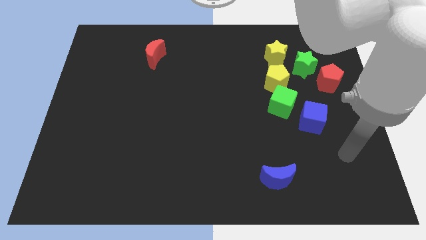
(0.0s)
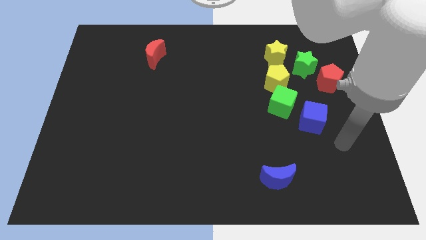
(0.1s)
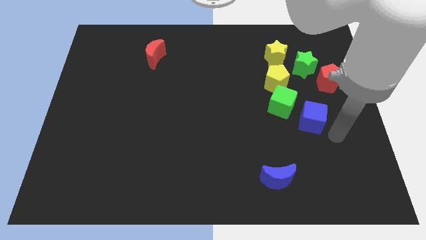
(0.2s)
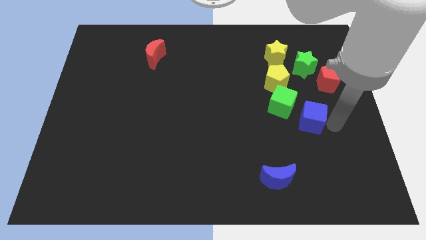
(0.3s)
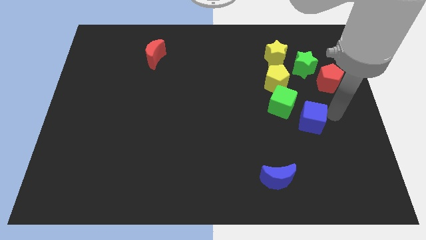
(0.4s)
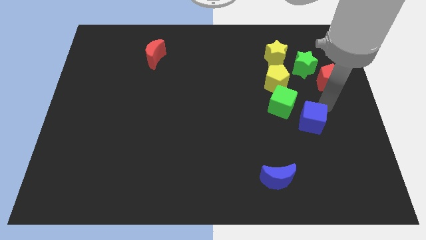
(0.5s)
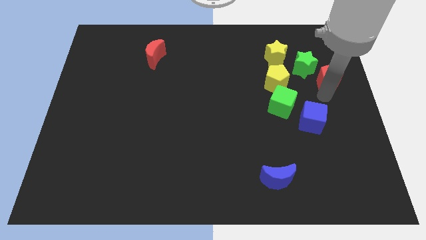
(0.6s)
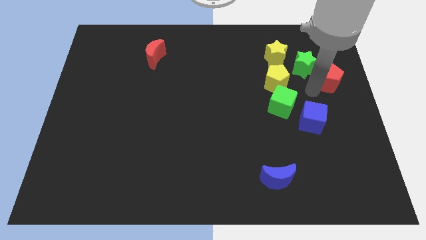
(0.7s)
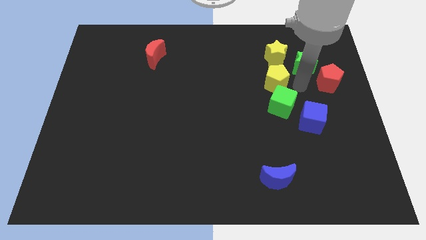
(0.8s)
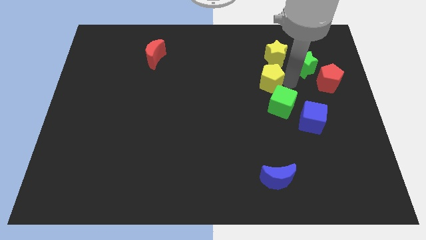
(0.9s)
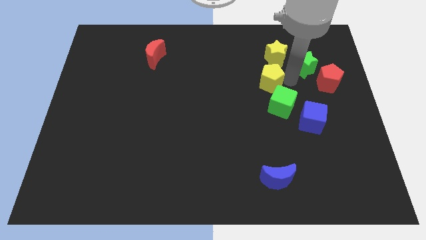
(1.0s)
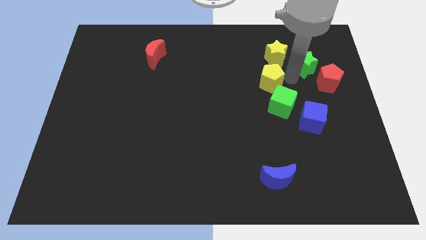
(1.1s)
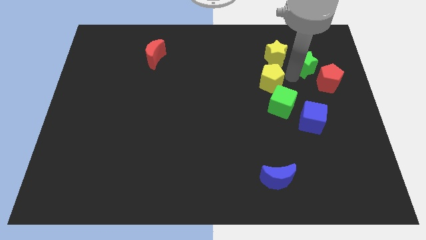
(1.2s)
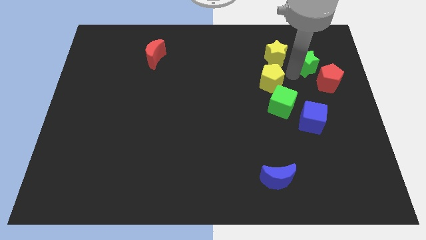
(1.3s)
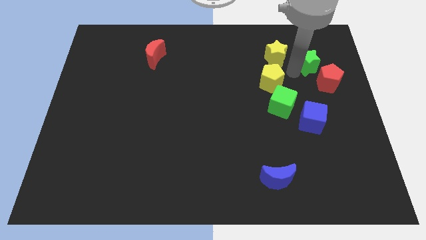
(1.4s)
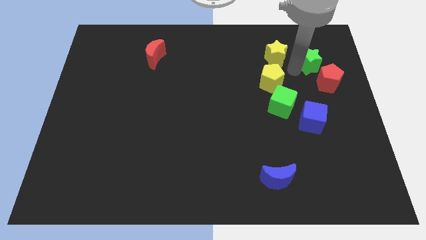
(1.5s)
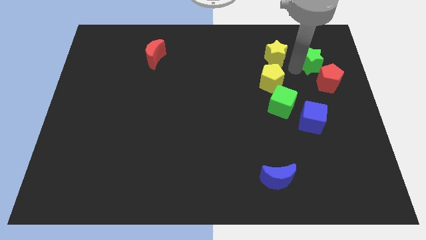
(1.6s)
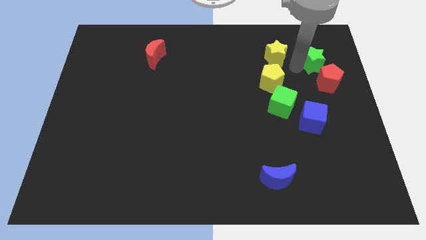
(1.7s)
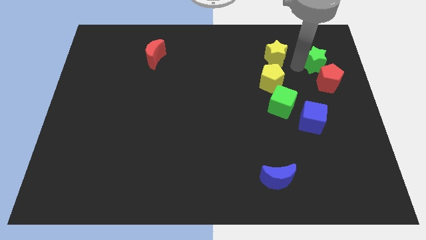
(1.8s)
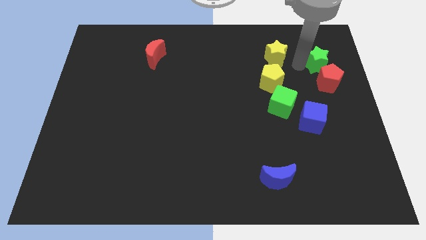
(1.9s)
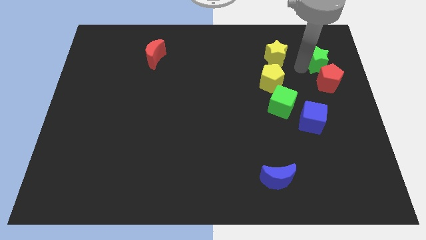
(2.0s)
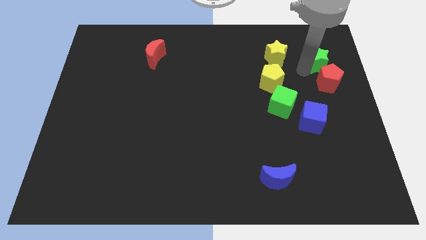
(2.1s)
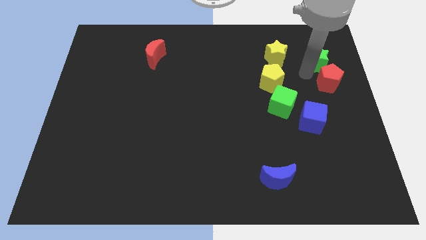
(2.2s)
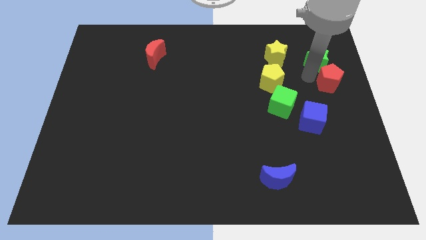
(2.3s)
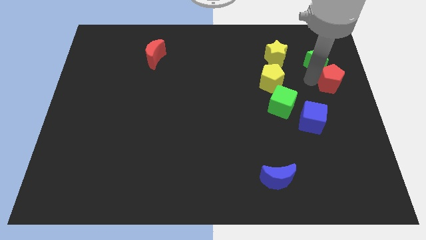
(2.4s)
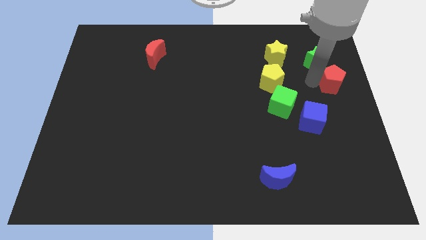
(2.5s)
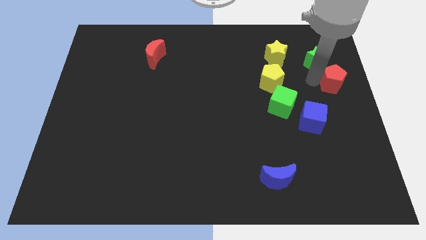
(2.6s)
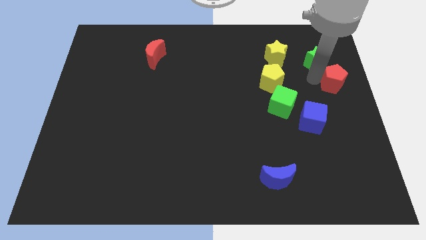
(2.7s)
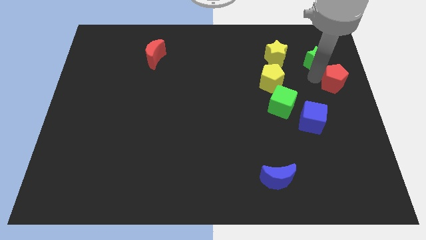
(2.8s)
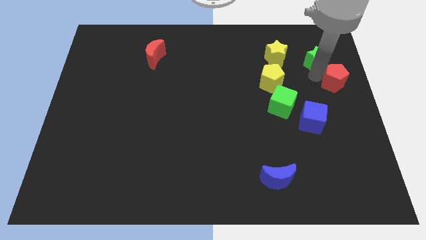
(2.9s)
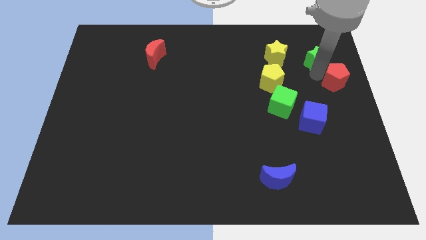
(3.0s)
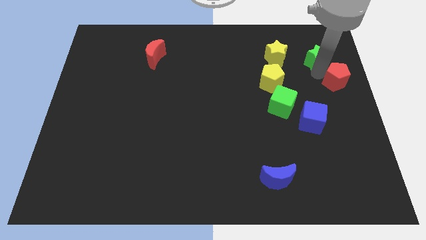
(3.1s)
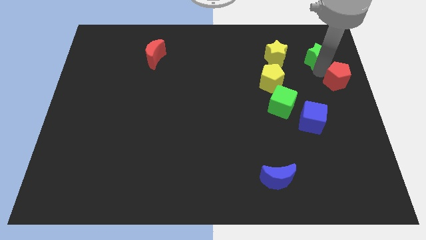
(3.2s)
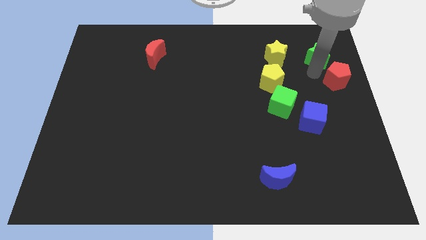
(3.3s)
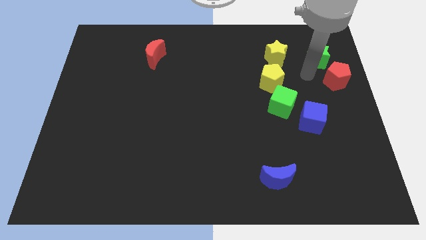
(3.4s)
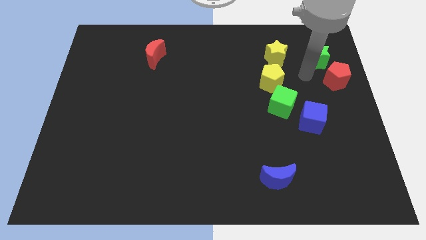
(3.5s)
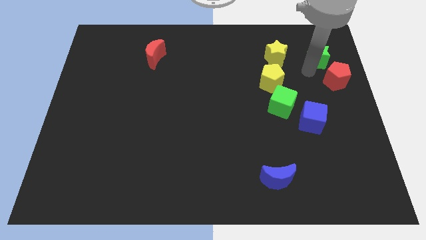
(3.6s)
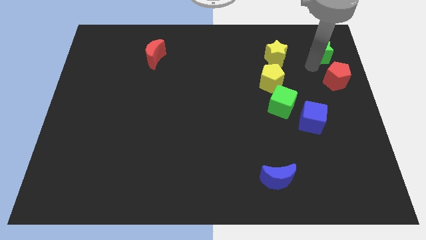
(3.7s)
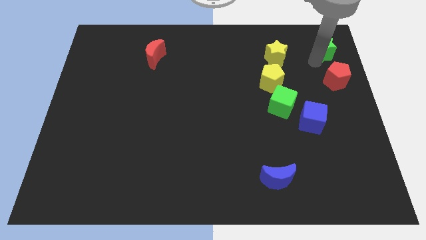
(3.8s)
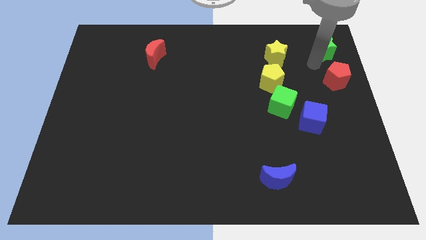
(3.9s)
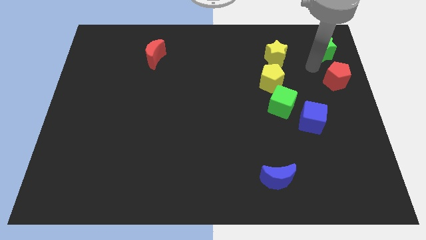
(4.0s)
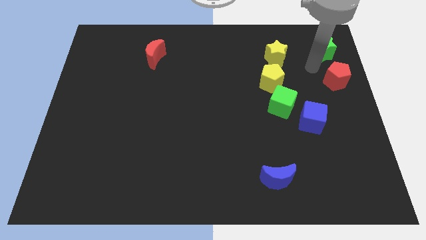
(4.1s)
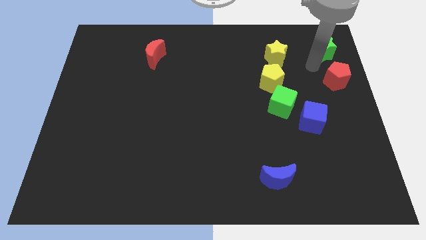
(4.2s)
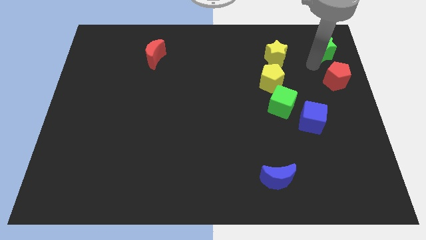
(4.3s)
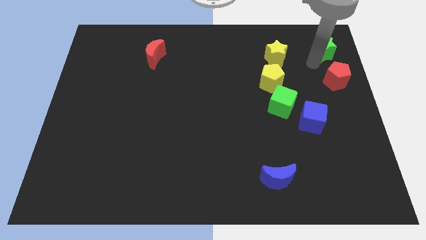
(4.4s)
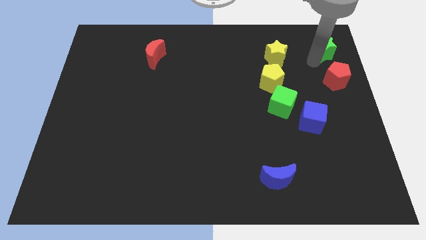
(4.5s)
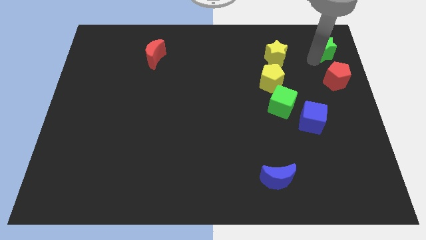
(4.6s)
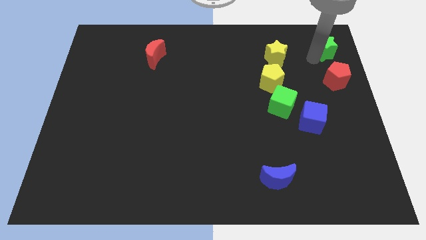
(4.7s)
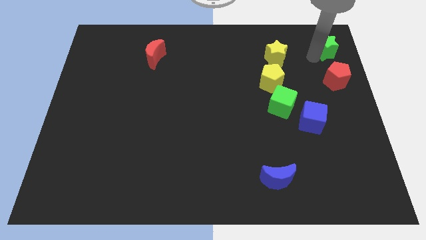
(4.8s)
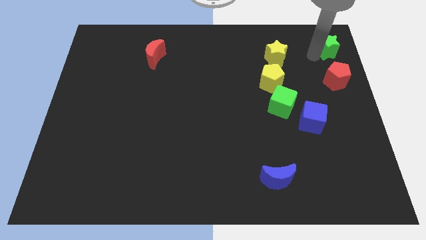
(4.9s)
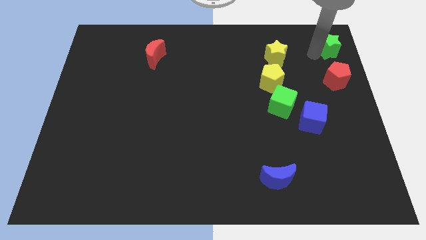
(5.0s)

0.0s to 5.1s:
put the green star to the top right

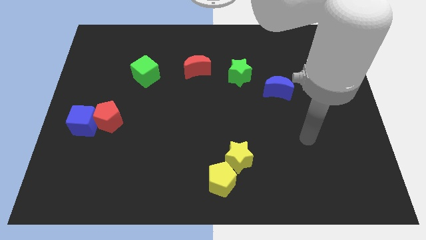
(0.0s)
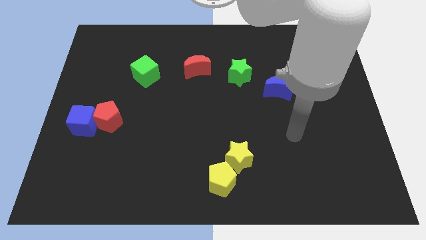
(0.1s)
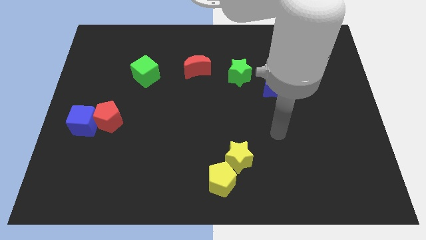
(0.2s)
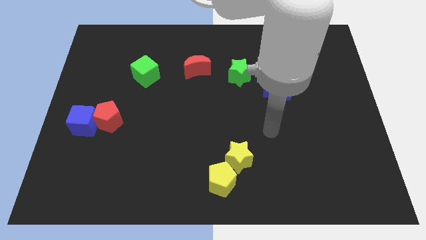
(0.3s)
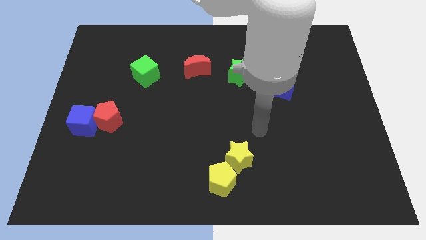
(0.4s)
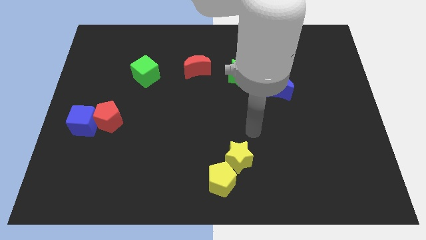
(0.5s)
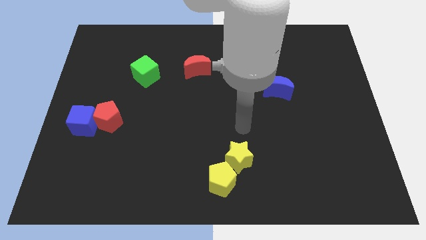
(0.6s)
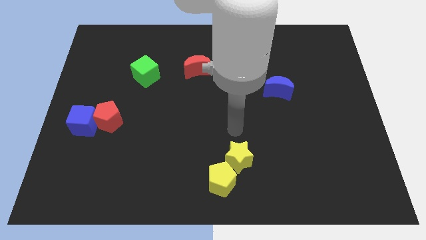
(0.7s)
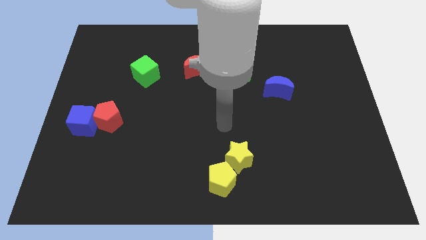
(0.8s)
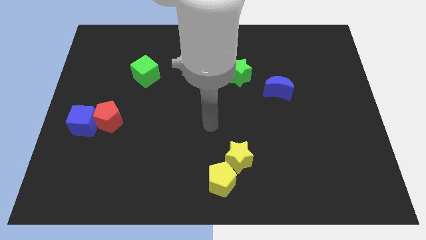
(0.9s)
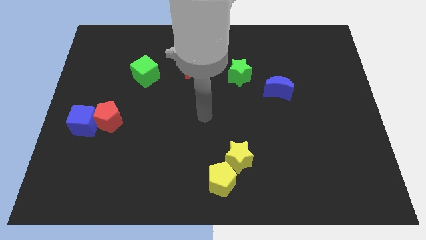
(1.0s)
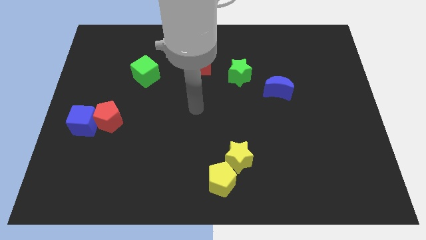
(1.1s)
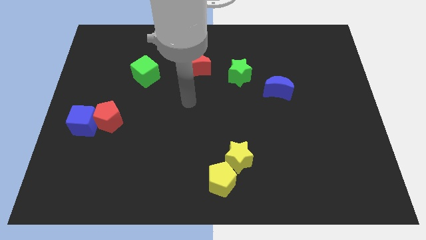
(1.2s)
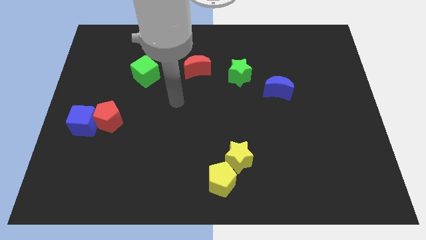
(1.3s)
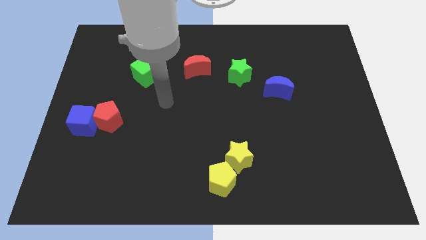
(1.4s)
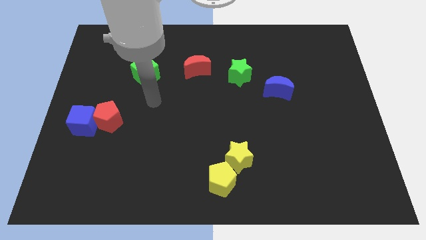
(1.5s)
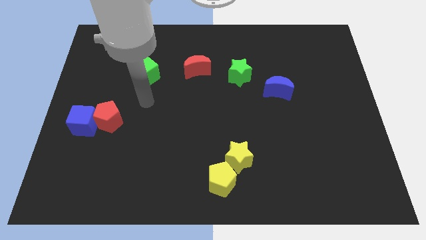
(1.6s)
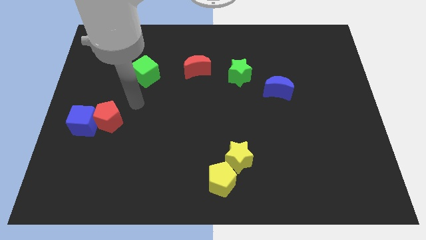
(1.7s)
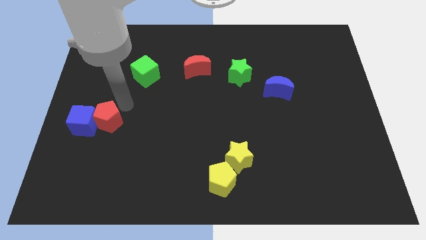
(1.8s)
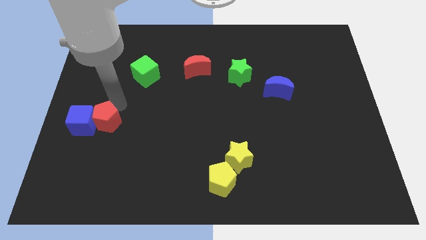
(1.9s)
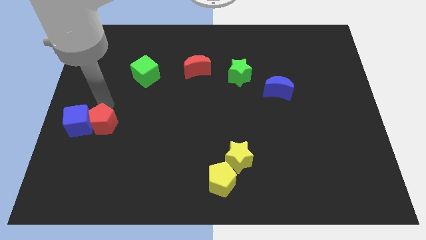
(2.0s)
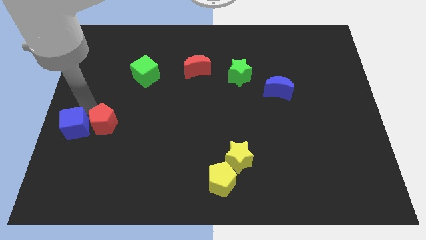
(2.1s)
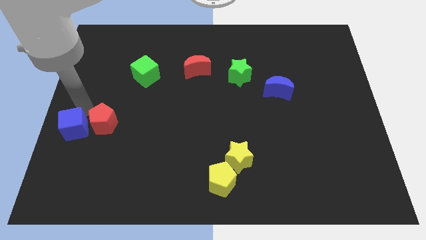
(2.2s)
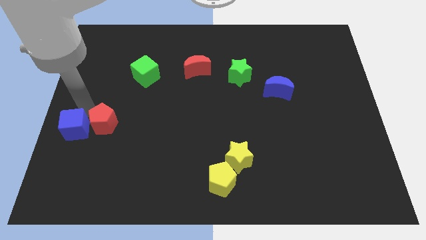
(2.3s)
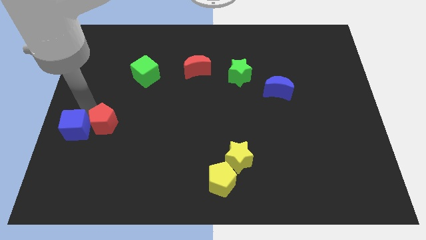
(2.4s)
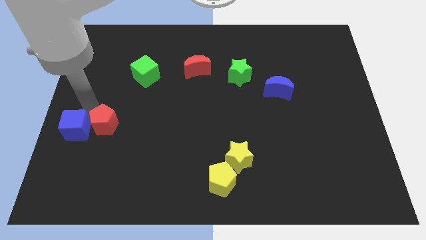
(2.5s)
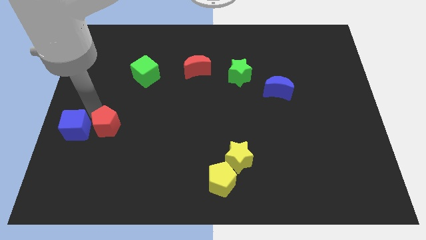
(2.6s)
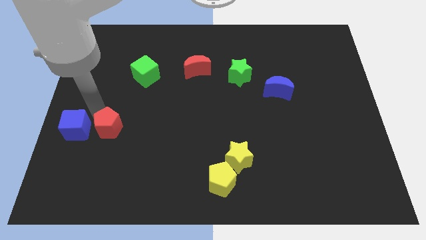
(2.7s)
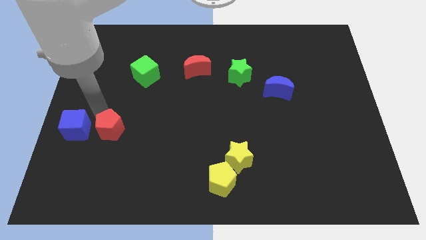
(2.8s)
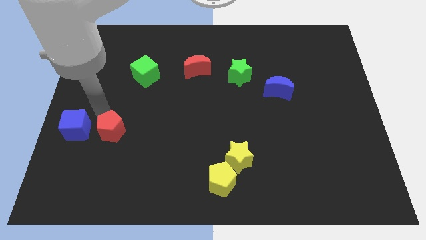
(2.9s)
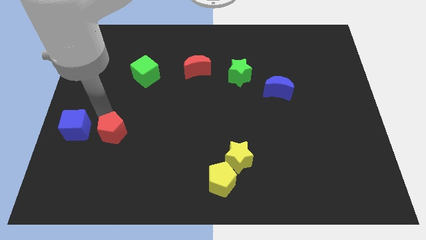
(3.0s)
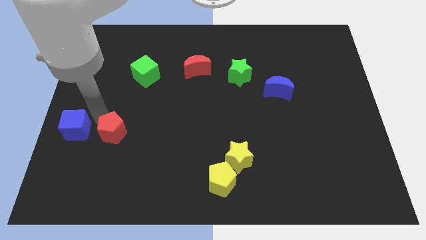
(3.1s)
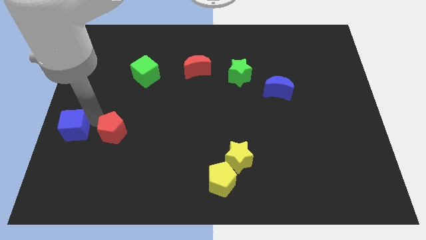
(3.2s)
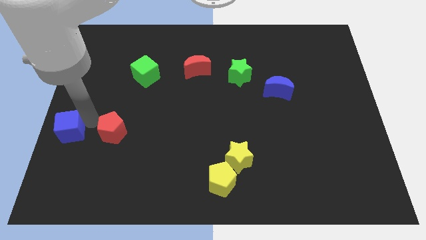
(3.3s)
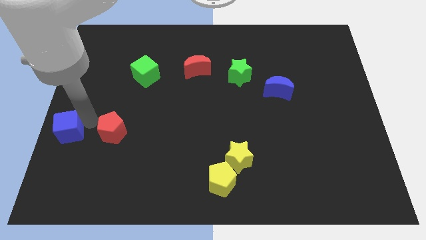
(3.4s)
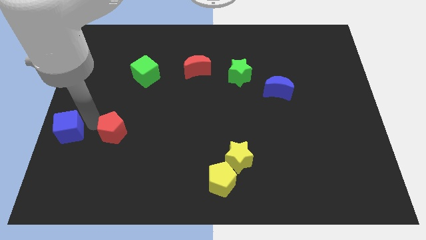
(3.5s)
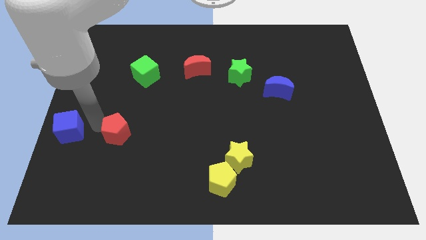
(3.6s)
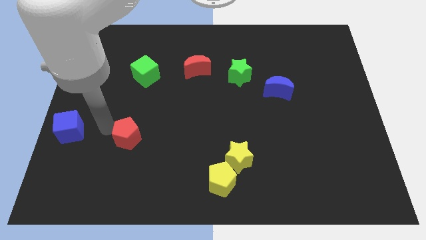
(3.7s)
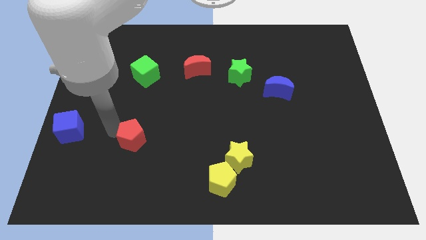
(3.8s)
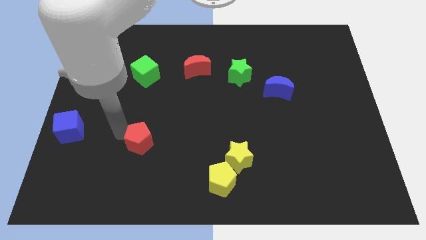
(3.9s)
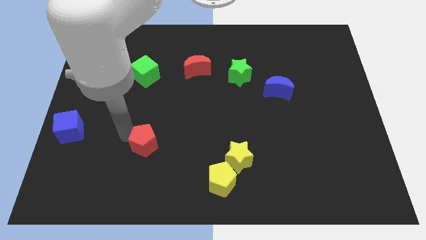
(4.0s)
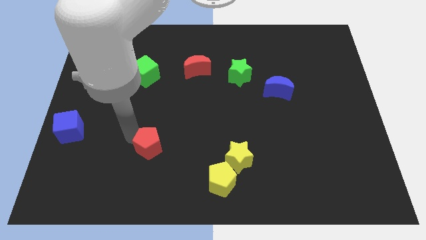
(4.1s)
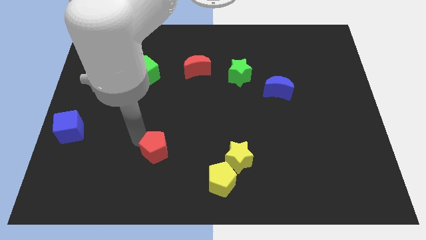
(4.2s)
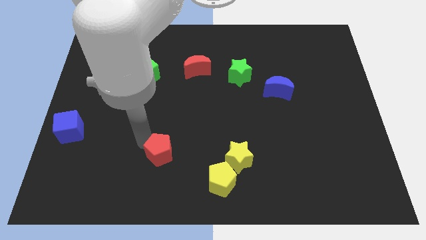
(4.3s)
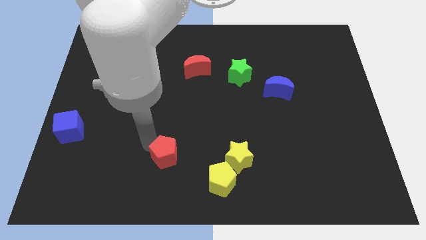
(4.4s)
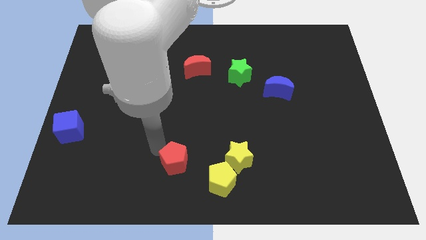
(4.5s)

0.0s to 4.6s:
slide the red pentagon to the bottom
